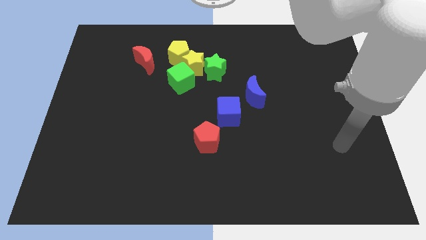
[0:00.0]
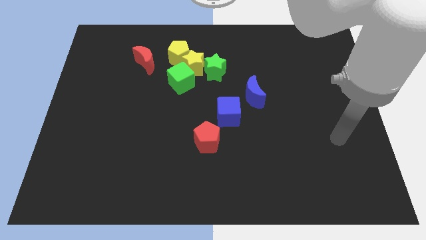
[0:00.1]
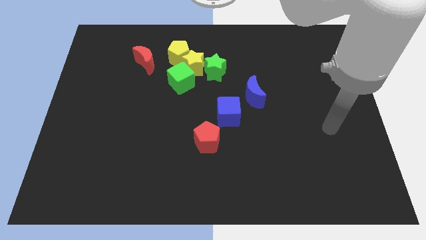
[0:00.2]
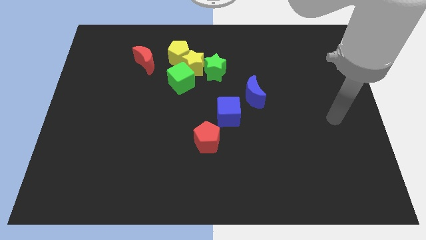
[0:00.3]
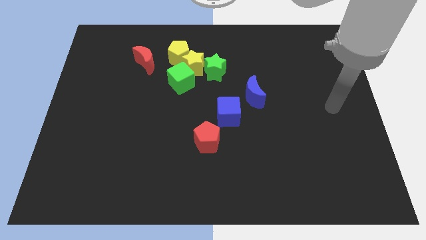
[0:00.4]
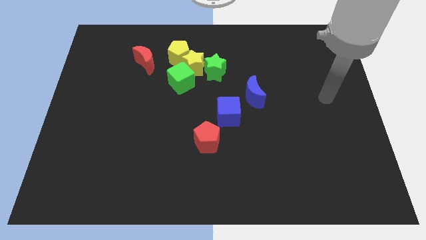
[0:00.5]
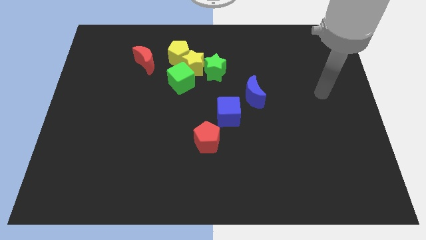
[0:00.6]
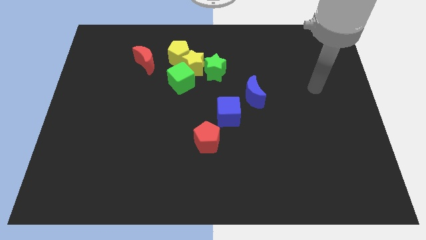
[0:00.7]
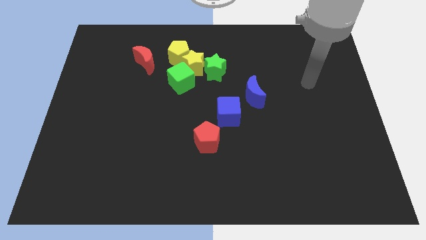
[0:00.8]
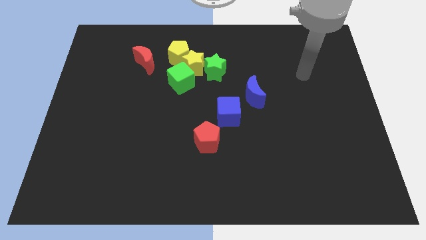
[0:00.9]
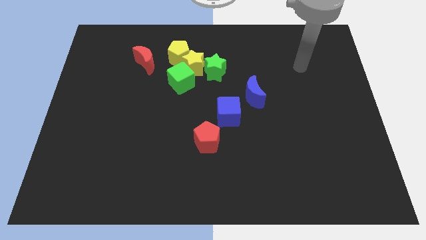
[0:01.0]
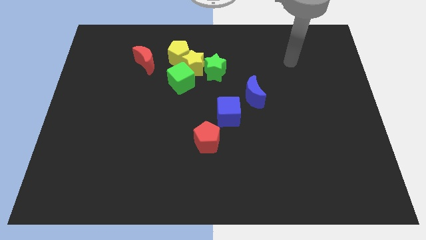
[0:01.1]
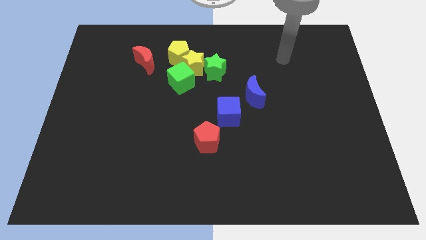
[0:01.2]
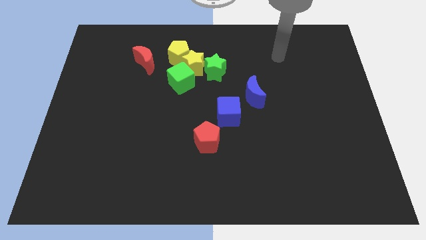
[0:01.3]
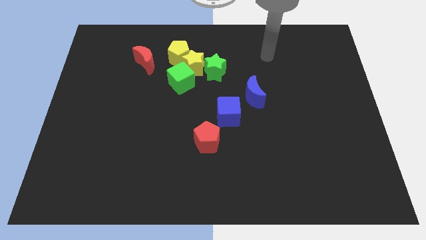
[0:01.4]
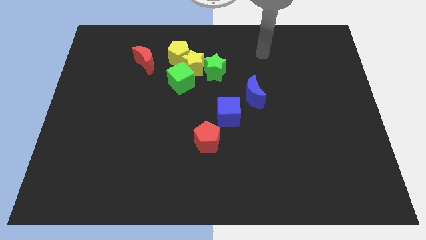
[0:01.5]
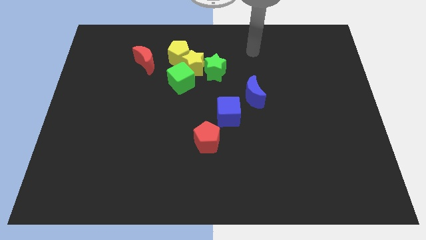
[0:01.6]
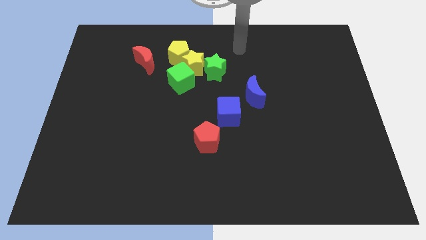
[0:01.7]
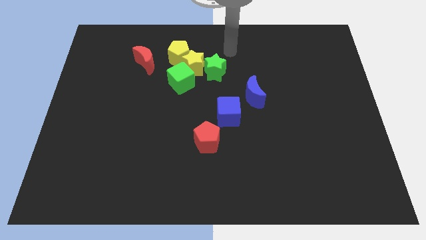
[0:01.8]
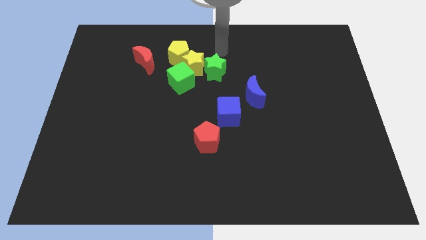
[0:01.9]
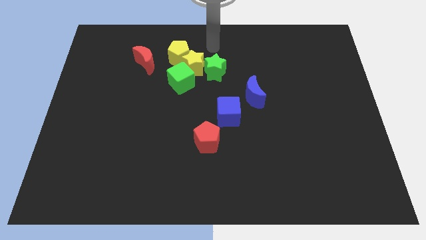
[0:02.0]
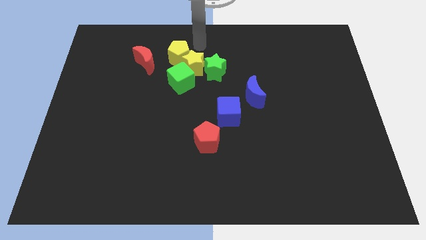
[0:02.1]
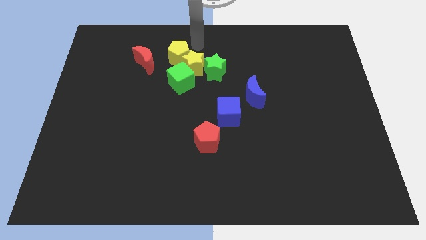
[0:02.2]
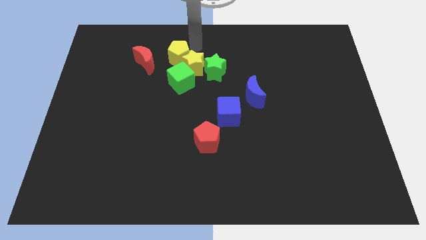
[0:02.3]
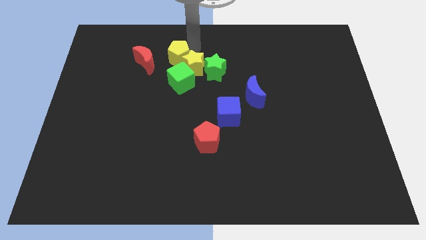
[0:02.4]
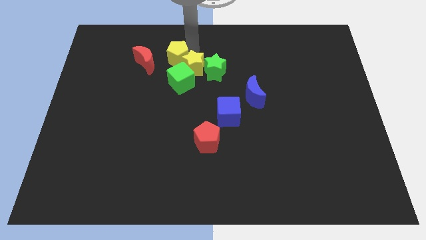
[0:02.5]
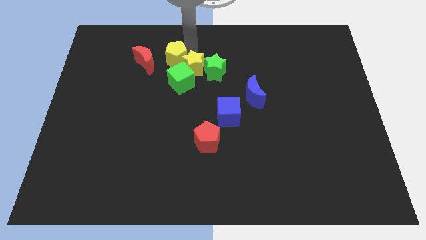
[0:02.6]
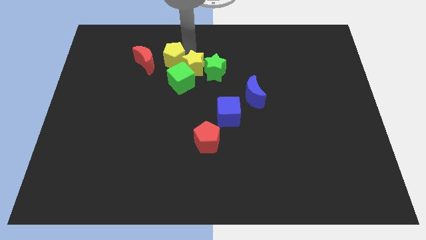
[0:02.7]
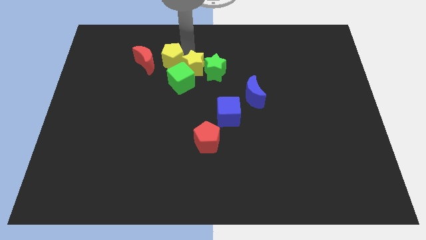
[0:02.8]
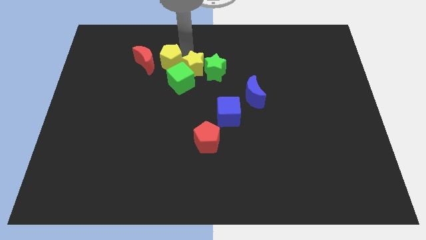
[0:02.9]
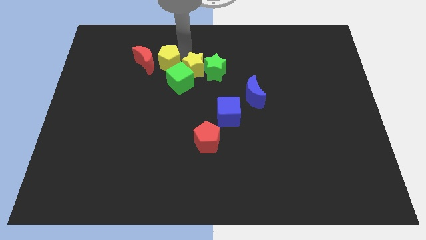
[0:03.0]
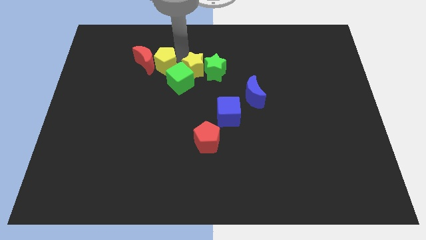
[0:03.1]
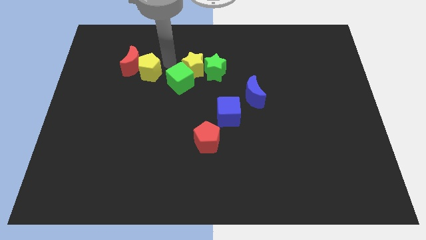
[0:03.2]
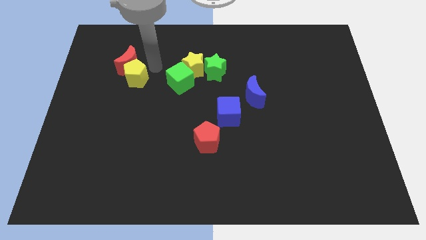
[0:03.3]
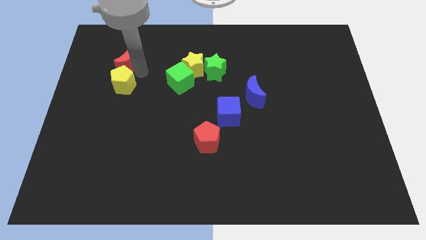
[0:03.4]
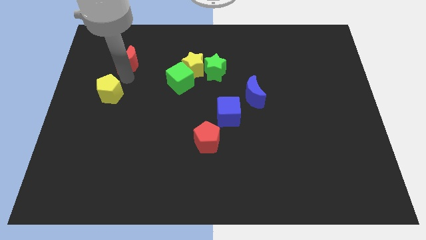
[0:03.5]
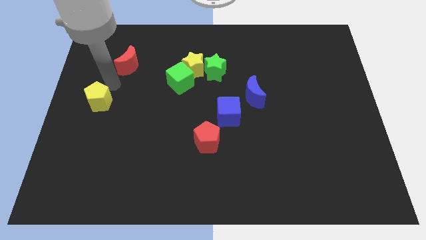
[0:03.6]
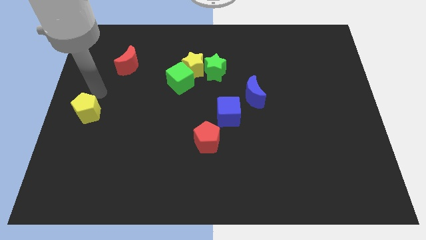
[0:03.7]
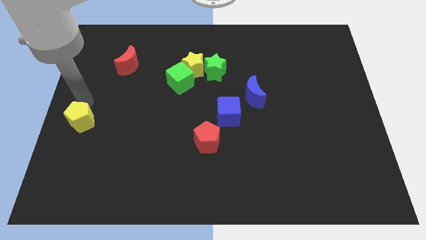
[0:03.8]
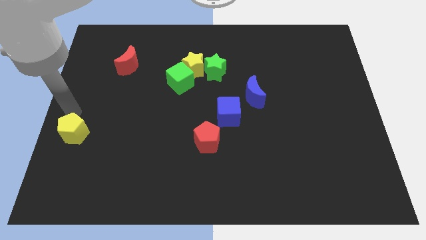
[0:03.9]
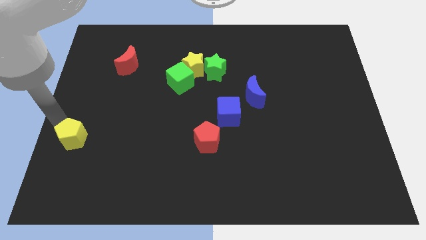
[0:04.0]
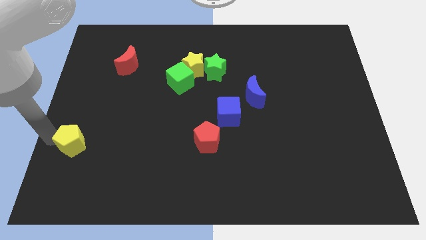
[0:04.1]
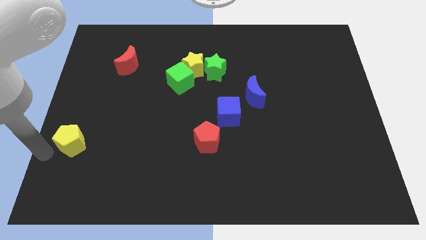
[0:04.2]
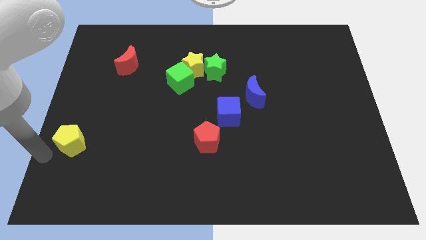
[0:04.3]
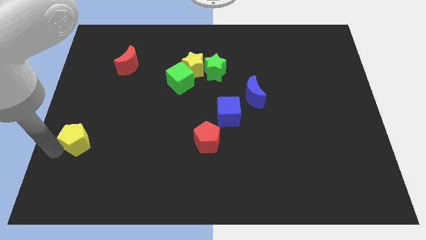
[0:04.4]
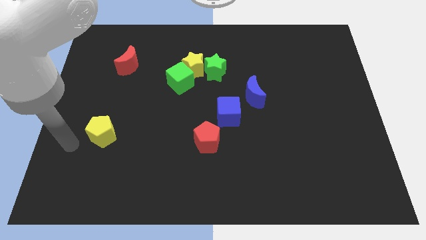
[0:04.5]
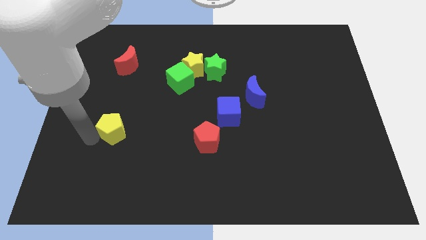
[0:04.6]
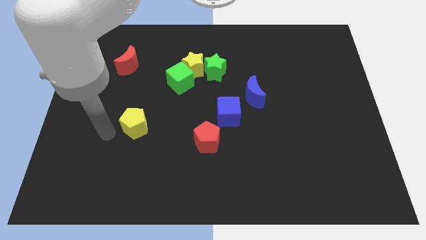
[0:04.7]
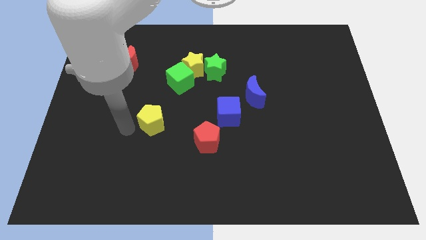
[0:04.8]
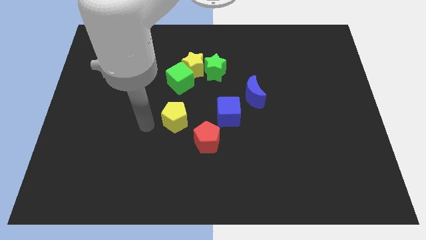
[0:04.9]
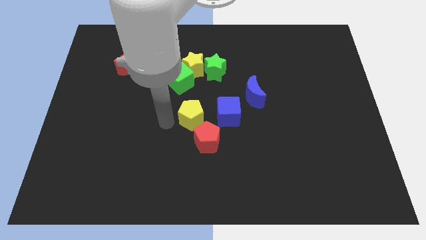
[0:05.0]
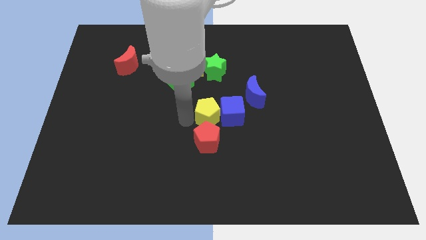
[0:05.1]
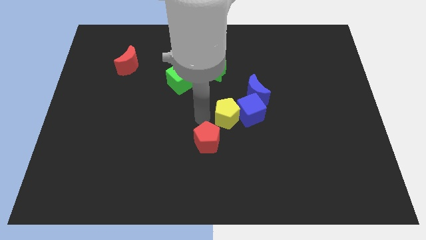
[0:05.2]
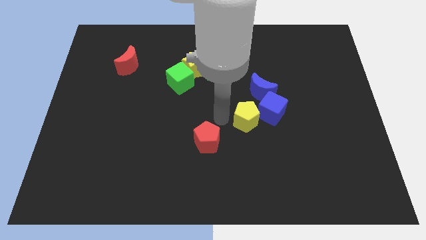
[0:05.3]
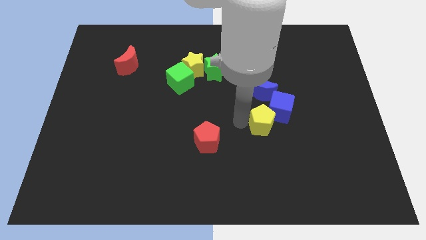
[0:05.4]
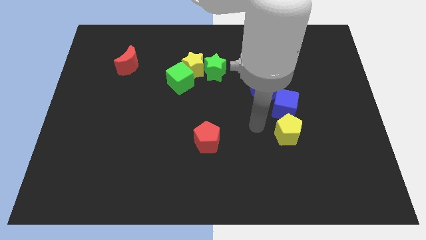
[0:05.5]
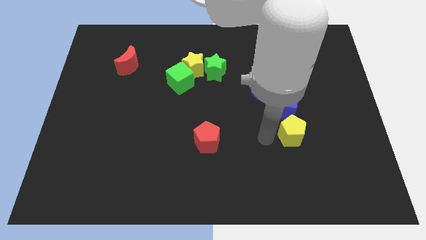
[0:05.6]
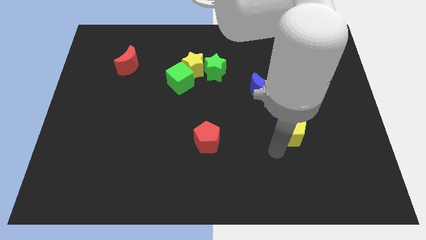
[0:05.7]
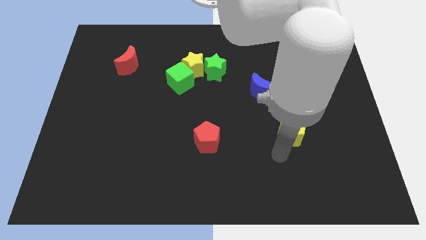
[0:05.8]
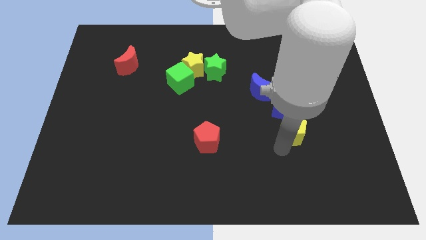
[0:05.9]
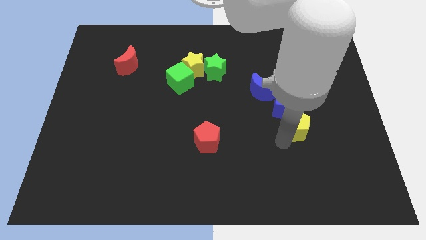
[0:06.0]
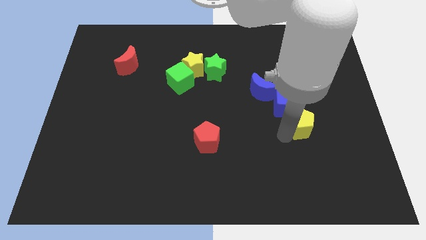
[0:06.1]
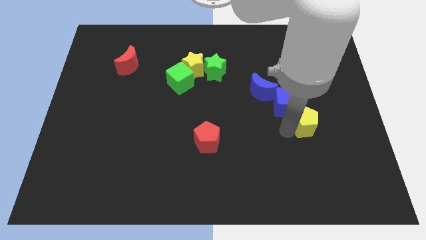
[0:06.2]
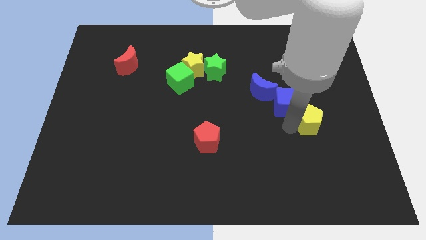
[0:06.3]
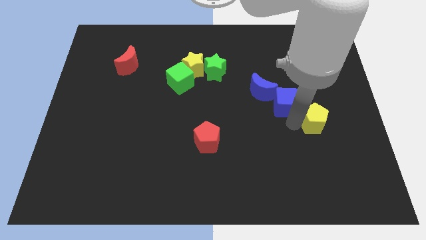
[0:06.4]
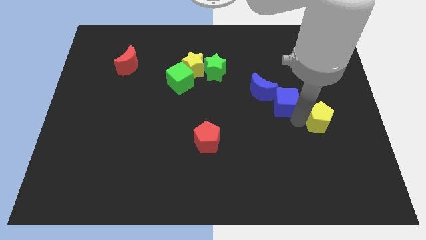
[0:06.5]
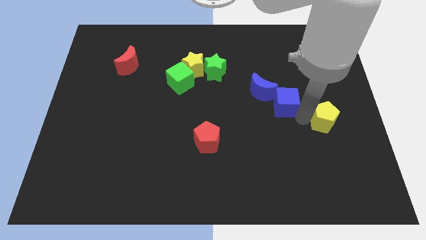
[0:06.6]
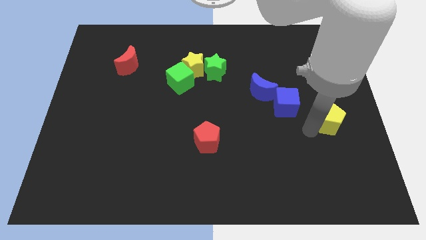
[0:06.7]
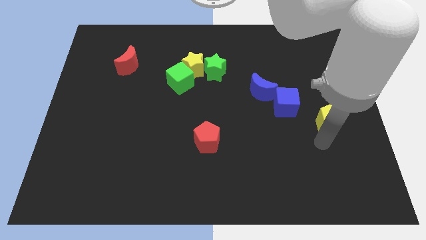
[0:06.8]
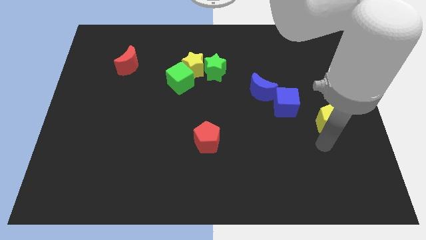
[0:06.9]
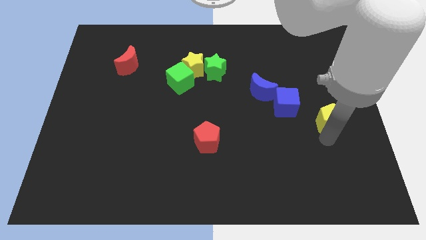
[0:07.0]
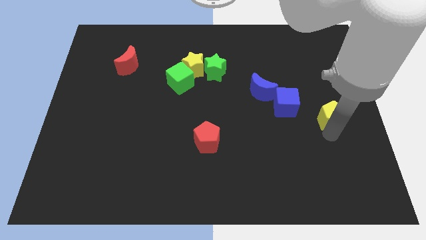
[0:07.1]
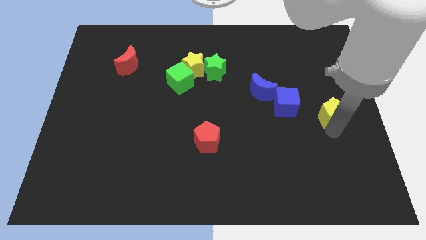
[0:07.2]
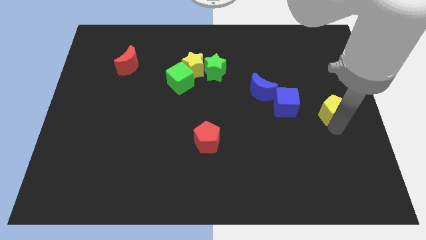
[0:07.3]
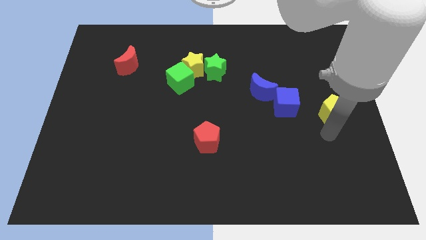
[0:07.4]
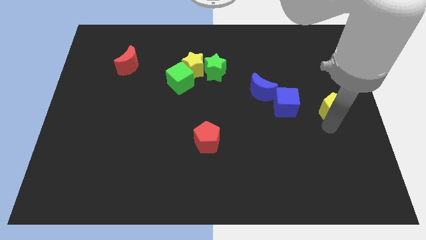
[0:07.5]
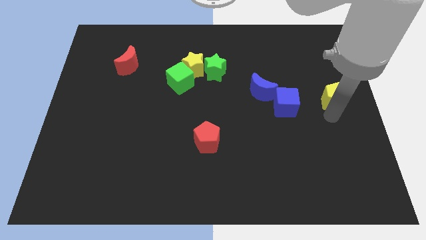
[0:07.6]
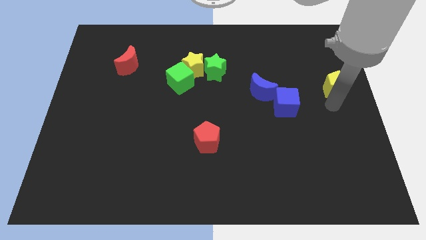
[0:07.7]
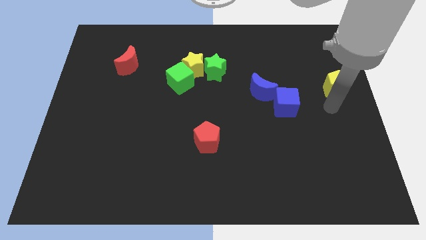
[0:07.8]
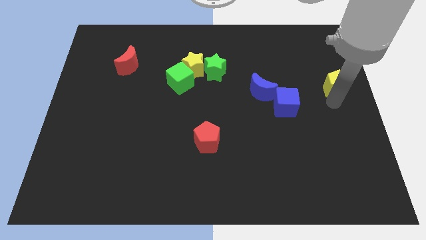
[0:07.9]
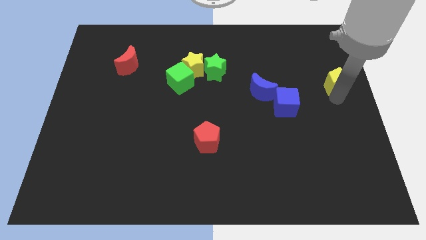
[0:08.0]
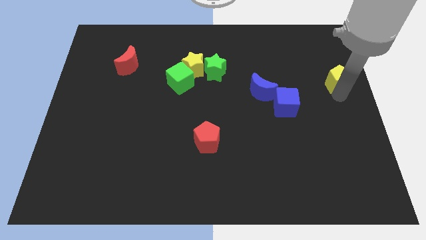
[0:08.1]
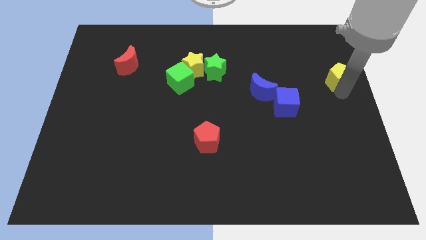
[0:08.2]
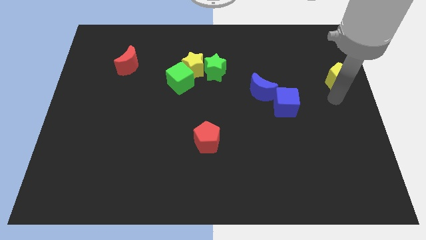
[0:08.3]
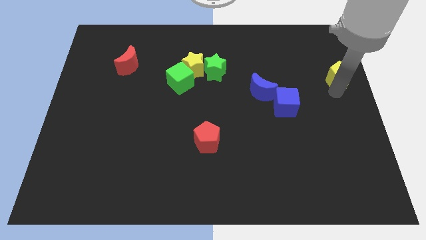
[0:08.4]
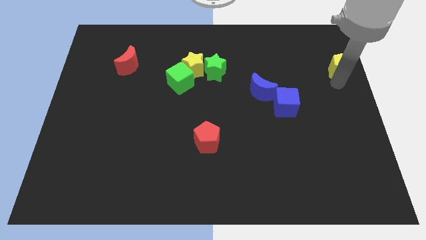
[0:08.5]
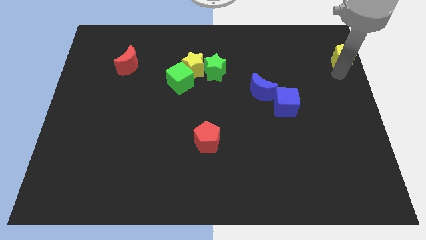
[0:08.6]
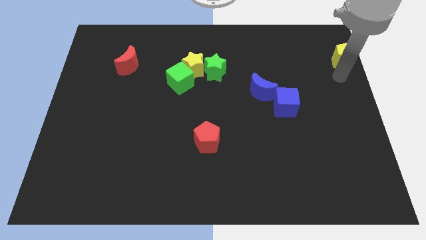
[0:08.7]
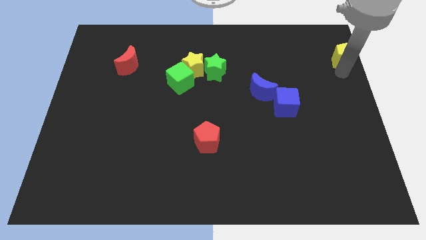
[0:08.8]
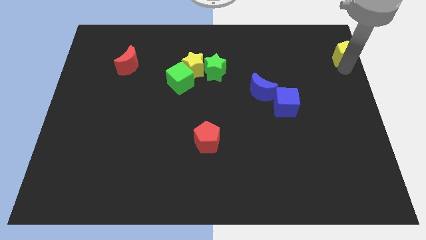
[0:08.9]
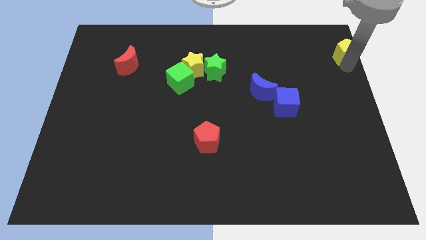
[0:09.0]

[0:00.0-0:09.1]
move the yellow pentagon to the top right corner
